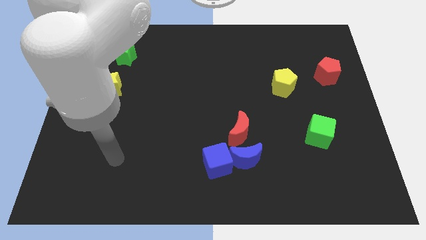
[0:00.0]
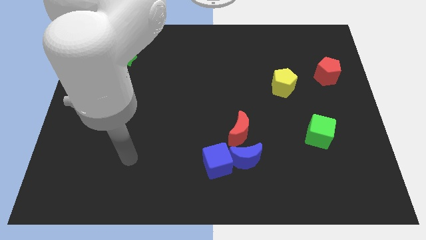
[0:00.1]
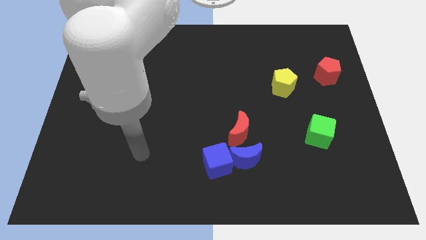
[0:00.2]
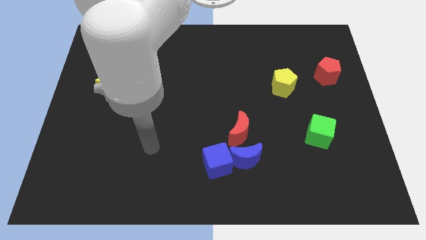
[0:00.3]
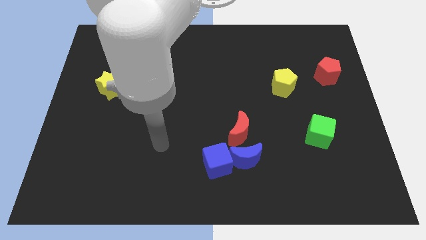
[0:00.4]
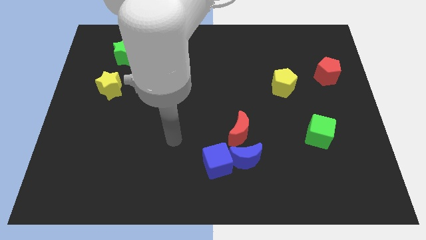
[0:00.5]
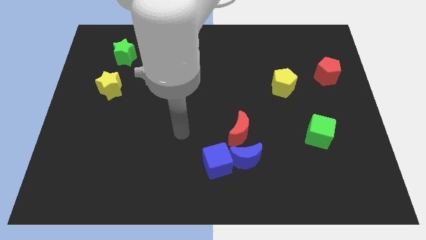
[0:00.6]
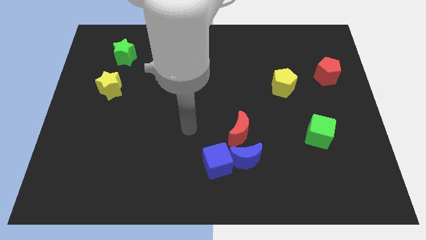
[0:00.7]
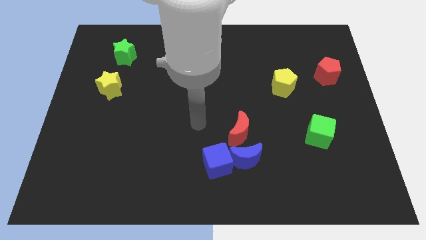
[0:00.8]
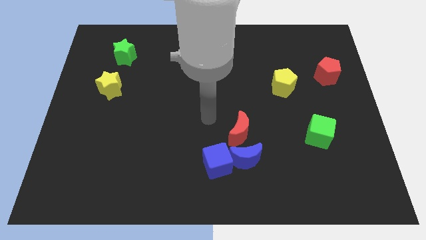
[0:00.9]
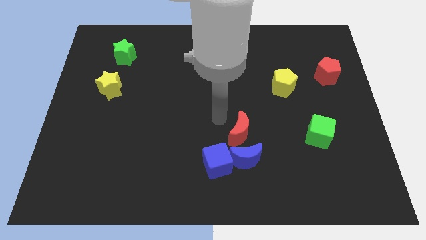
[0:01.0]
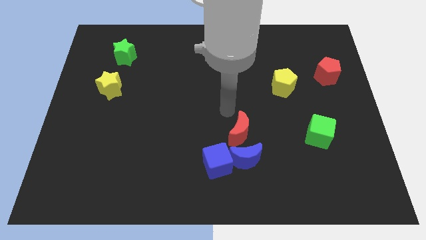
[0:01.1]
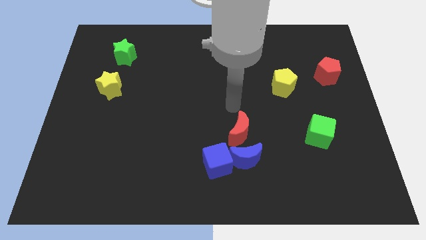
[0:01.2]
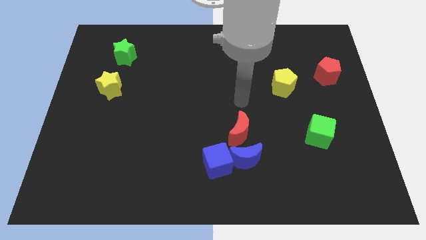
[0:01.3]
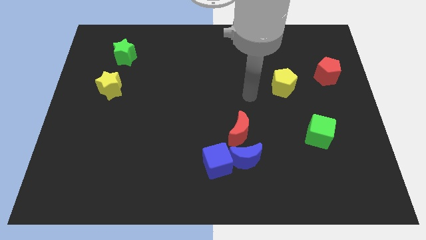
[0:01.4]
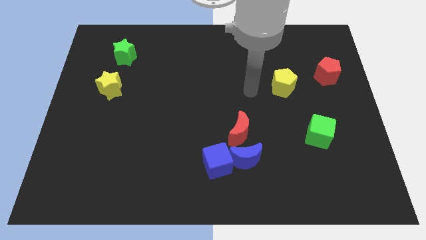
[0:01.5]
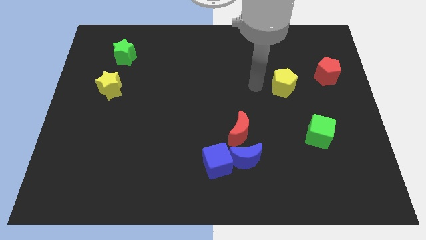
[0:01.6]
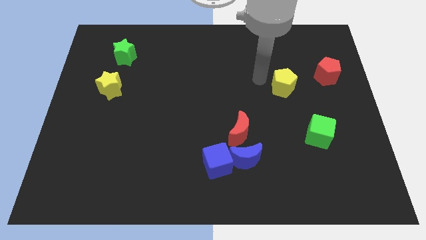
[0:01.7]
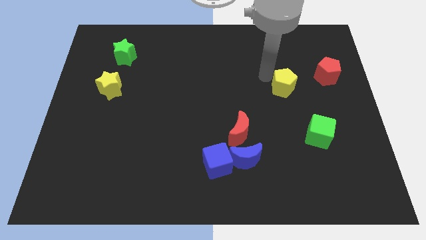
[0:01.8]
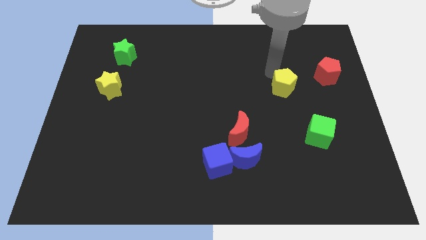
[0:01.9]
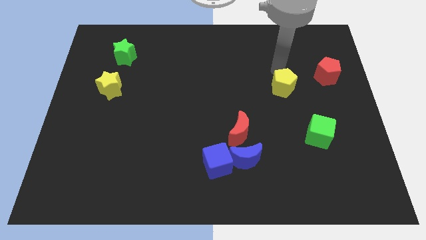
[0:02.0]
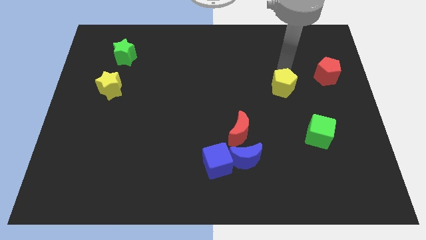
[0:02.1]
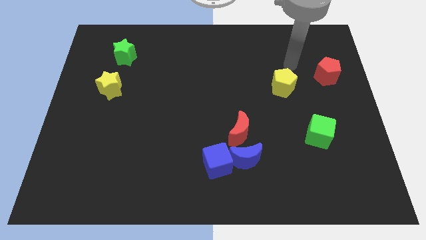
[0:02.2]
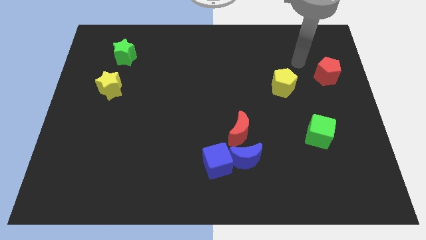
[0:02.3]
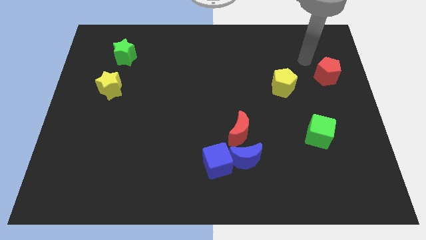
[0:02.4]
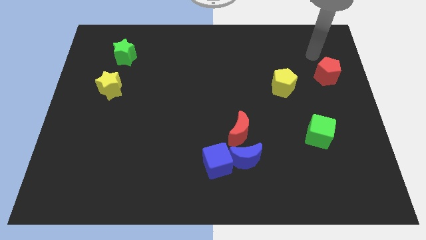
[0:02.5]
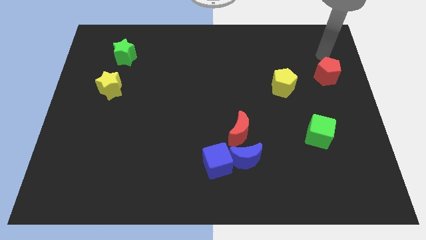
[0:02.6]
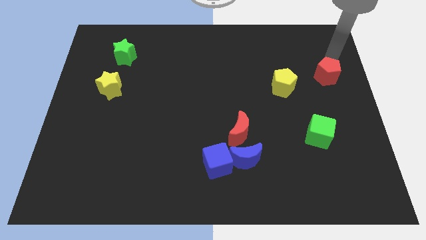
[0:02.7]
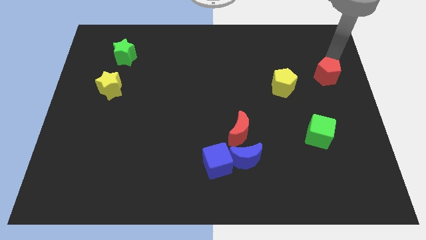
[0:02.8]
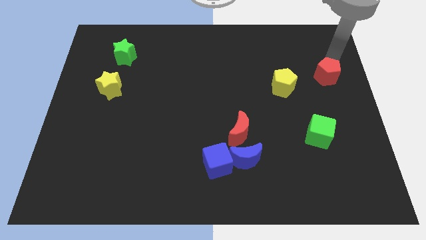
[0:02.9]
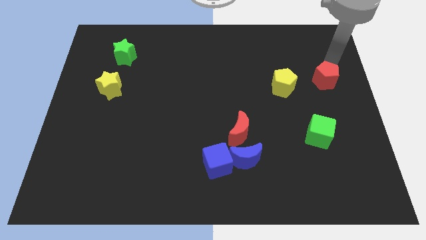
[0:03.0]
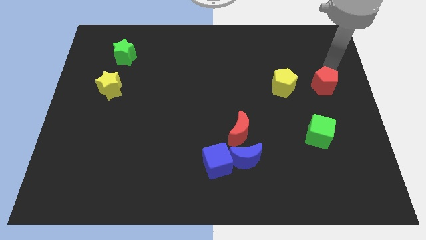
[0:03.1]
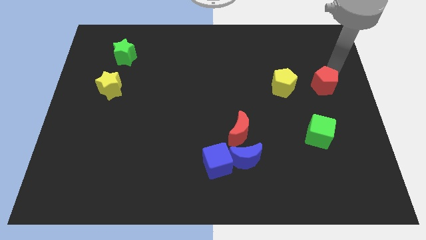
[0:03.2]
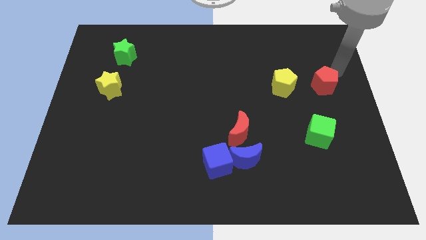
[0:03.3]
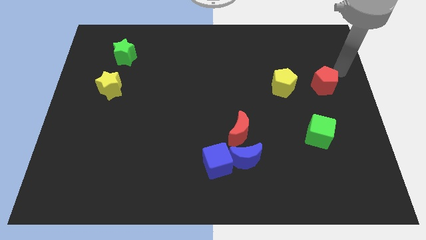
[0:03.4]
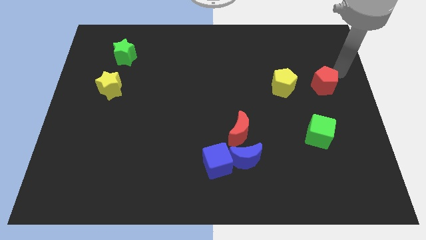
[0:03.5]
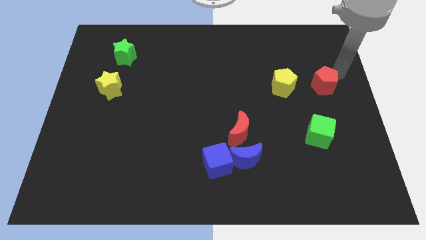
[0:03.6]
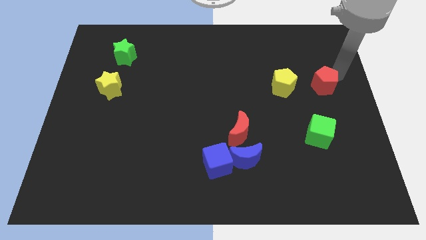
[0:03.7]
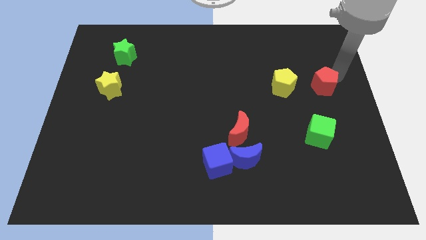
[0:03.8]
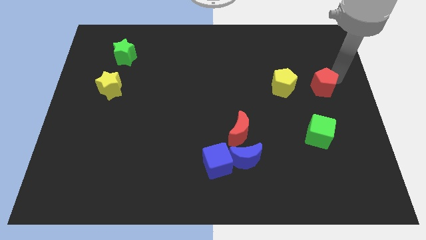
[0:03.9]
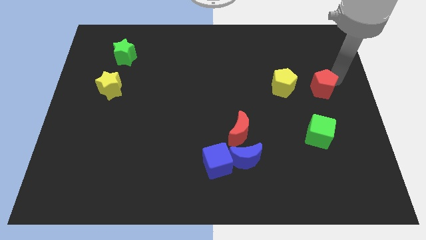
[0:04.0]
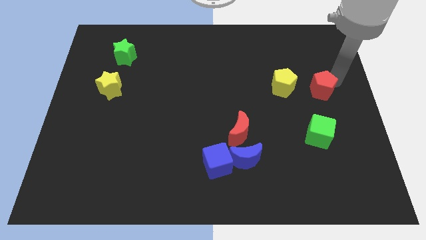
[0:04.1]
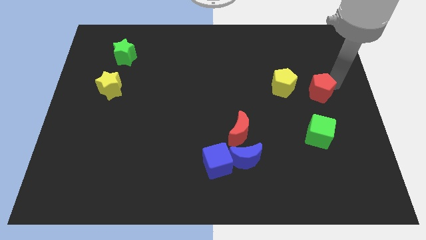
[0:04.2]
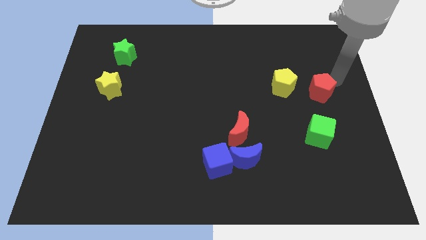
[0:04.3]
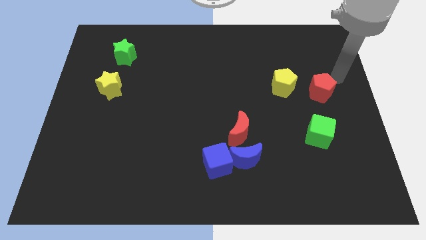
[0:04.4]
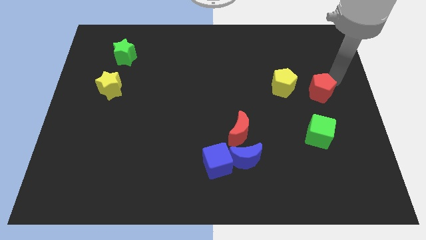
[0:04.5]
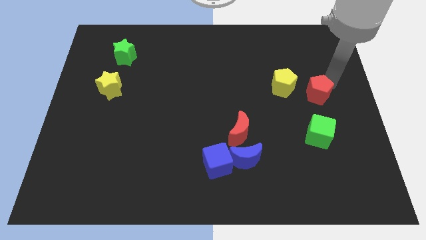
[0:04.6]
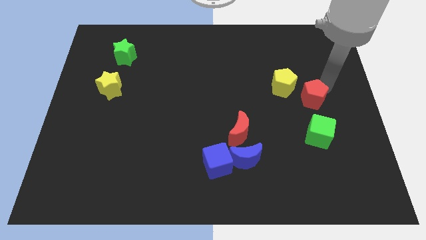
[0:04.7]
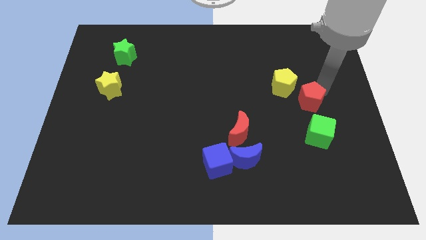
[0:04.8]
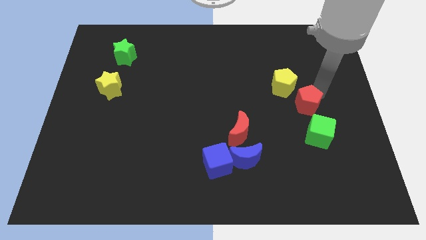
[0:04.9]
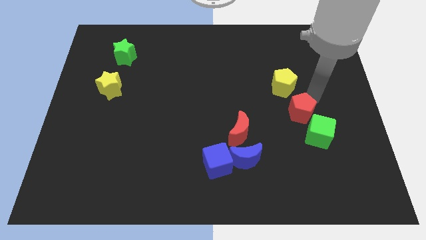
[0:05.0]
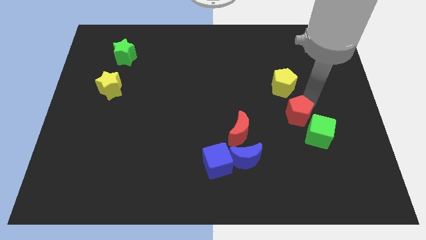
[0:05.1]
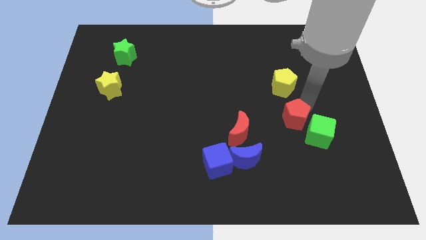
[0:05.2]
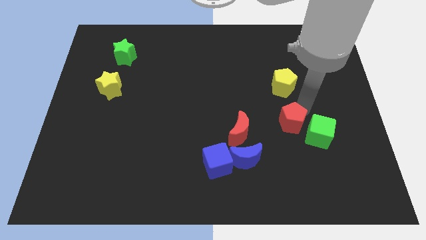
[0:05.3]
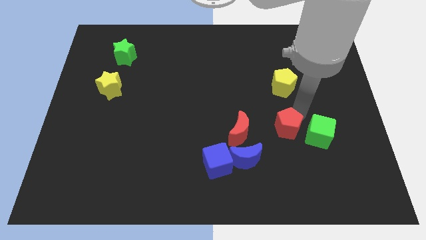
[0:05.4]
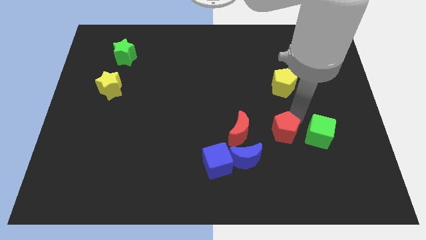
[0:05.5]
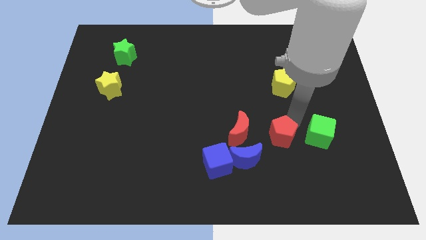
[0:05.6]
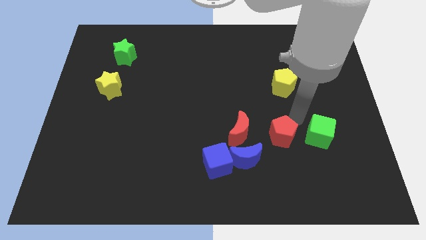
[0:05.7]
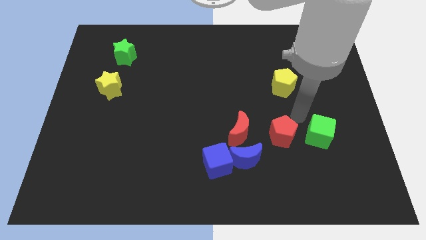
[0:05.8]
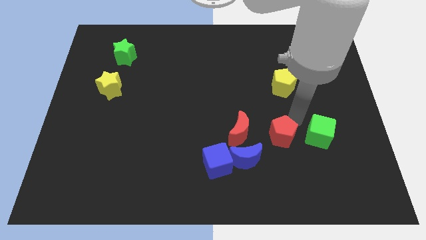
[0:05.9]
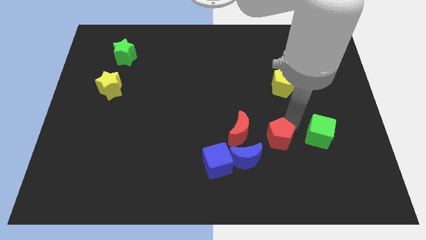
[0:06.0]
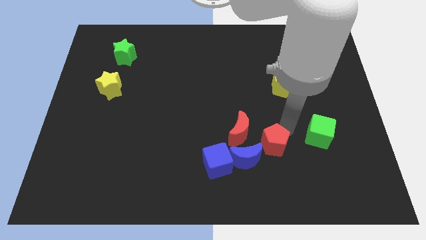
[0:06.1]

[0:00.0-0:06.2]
slide the red pentagon diagonally down and to the right of the red moon
